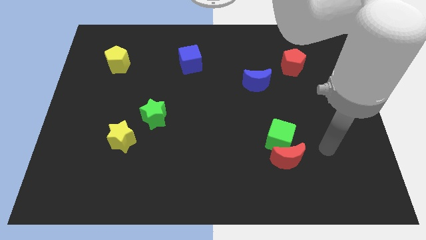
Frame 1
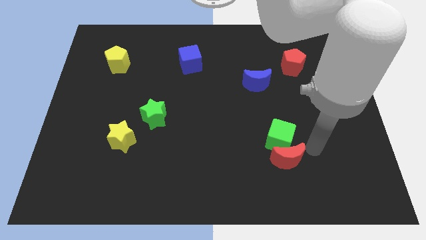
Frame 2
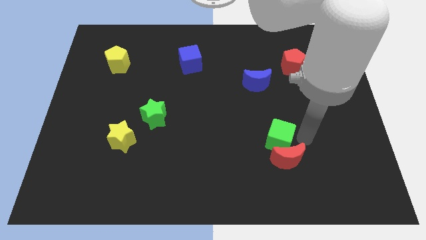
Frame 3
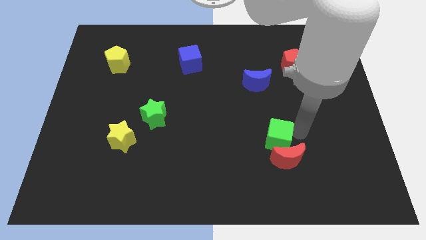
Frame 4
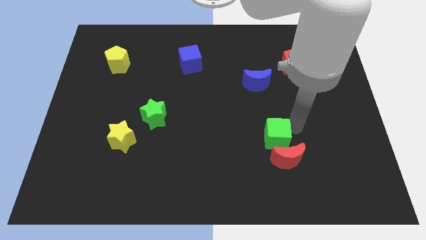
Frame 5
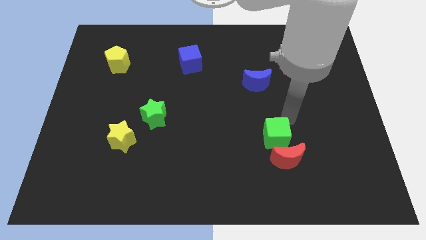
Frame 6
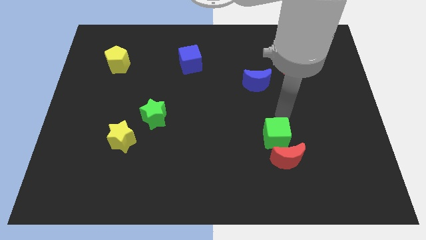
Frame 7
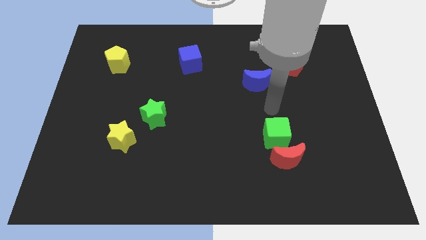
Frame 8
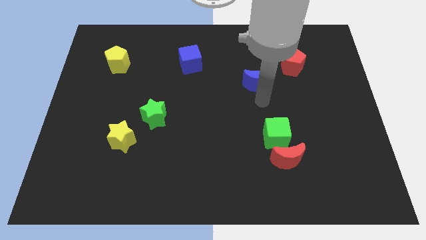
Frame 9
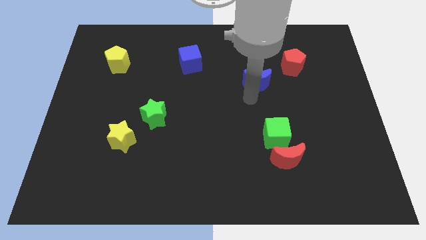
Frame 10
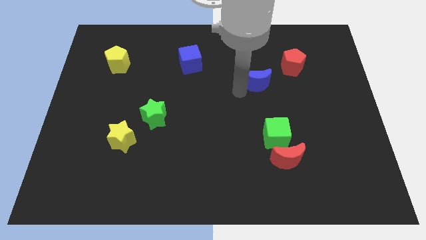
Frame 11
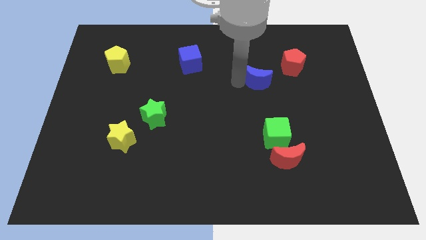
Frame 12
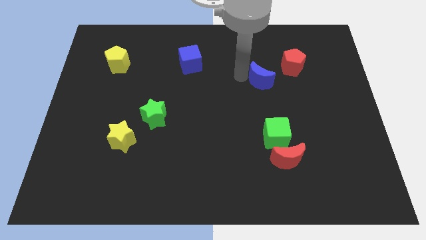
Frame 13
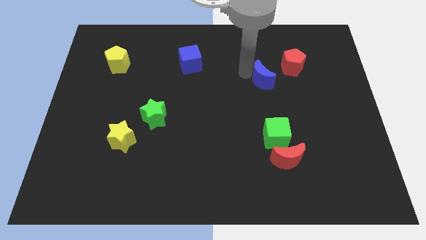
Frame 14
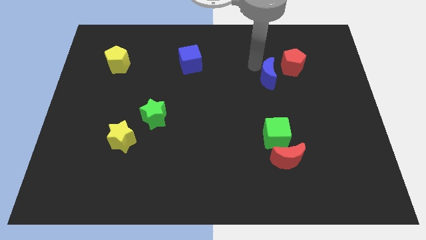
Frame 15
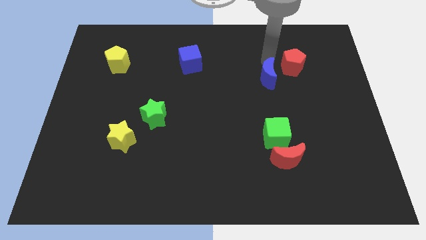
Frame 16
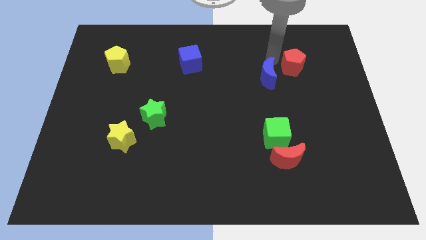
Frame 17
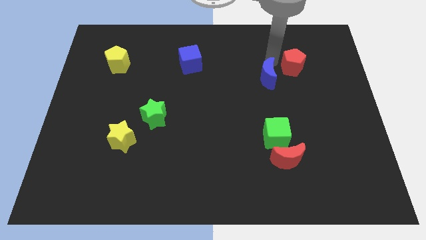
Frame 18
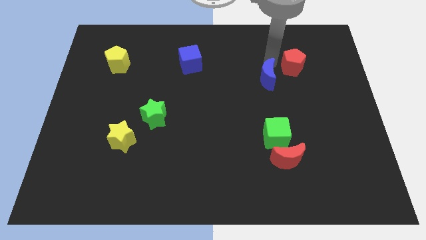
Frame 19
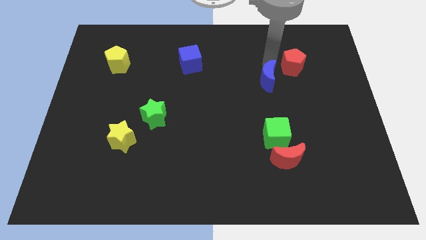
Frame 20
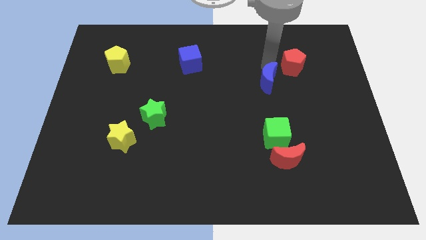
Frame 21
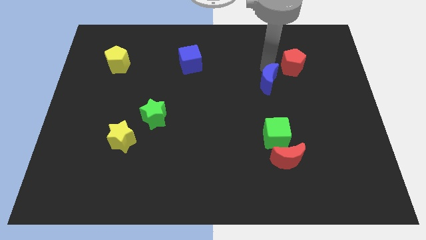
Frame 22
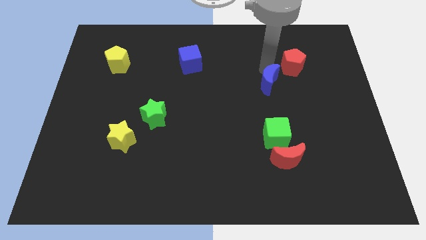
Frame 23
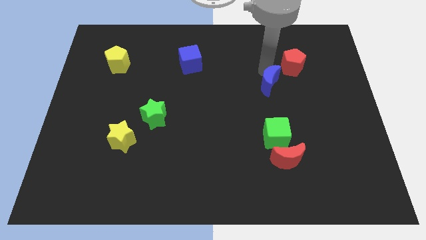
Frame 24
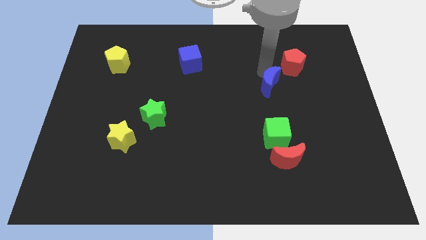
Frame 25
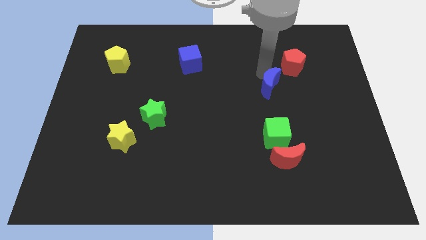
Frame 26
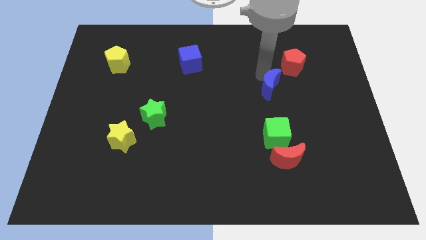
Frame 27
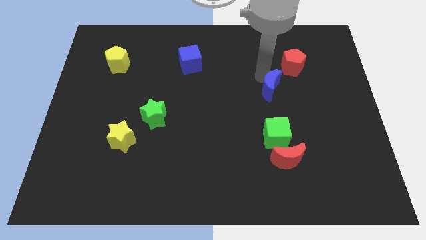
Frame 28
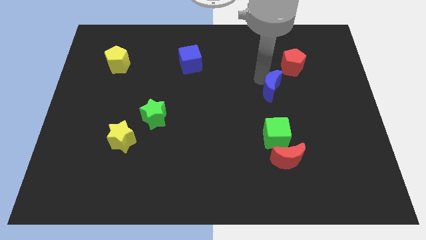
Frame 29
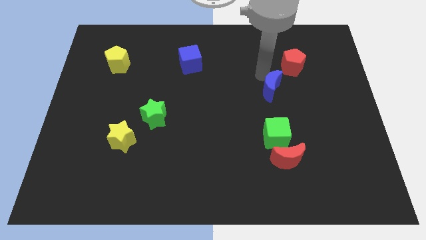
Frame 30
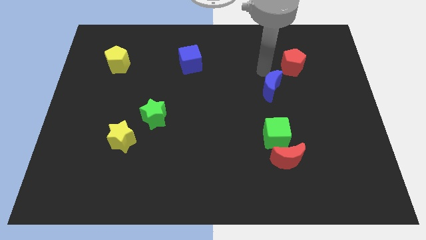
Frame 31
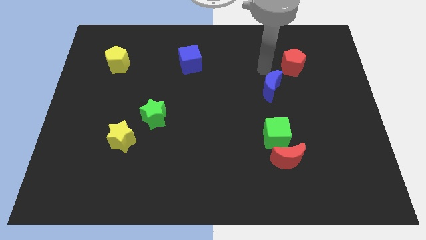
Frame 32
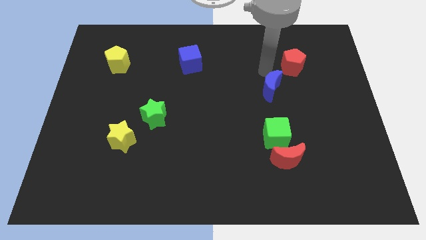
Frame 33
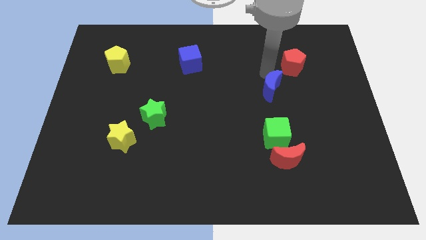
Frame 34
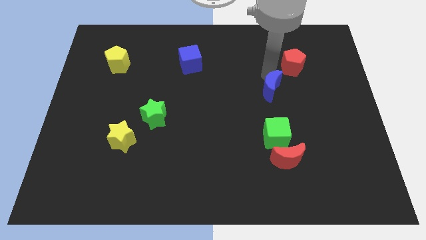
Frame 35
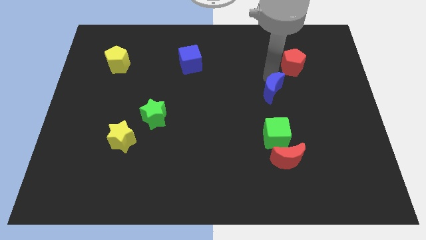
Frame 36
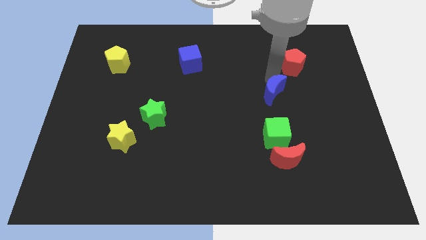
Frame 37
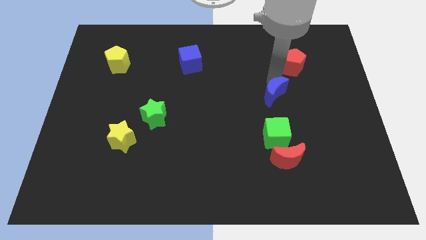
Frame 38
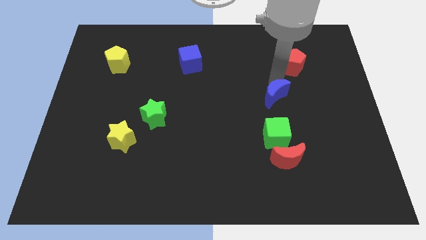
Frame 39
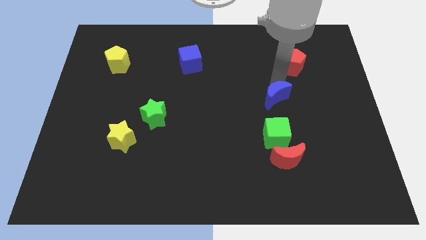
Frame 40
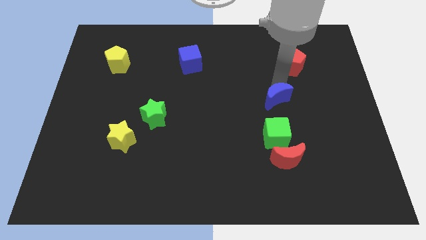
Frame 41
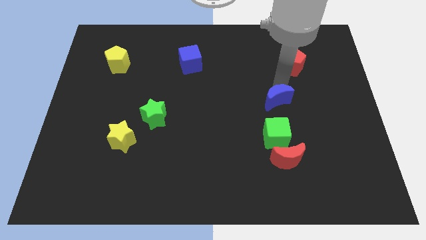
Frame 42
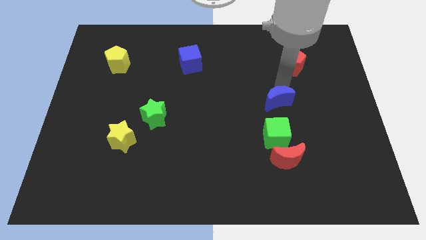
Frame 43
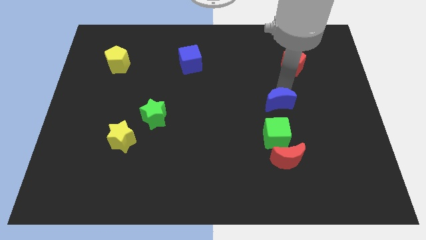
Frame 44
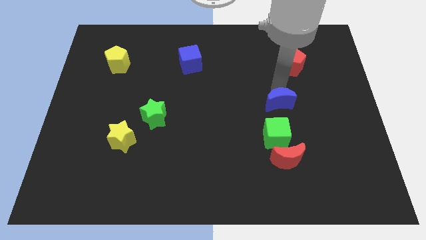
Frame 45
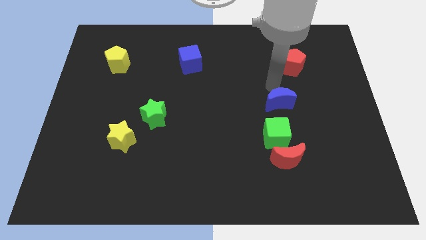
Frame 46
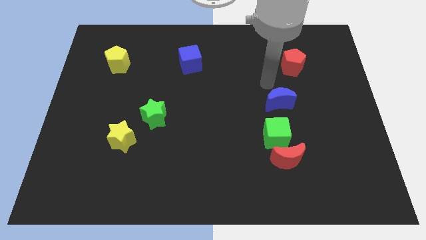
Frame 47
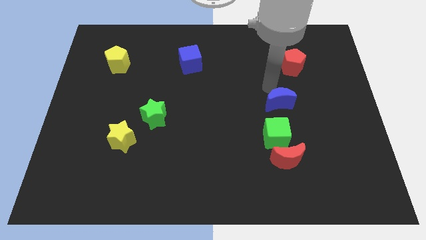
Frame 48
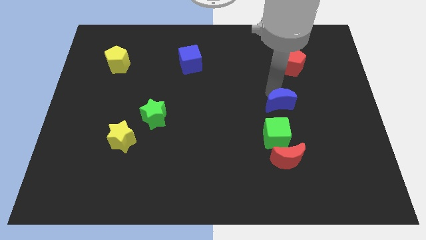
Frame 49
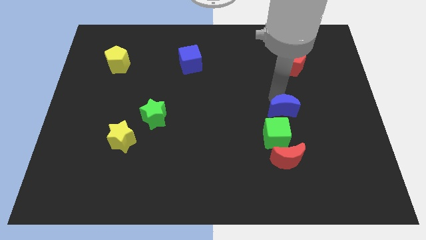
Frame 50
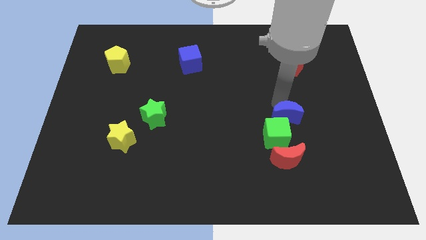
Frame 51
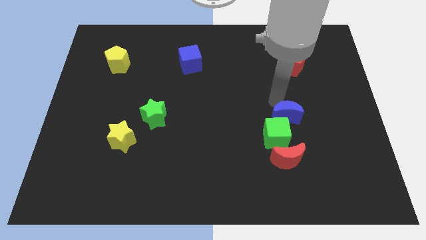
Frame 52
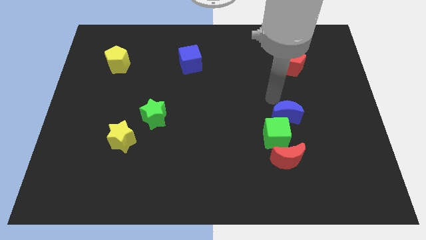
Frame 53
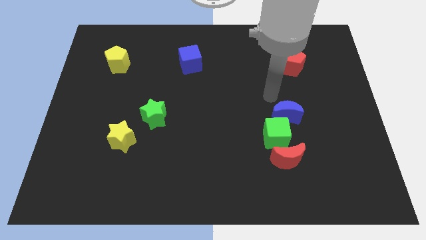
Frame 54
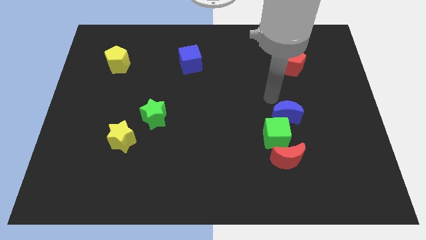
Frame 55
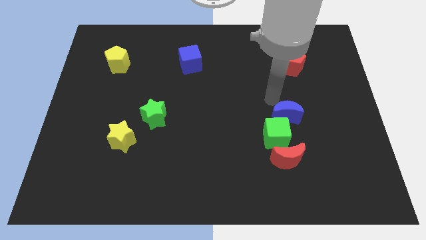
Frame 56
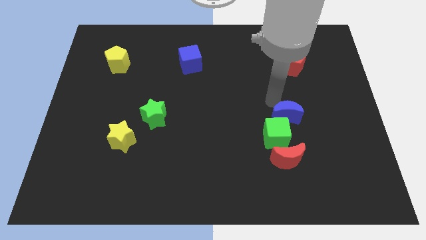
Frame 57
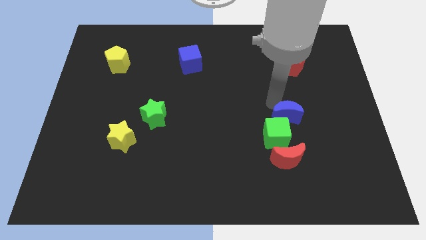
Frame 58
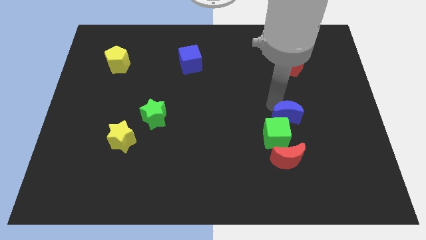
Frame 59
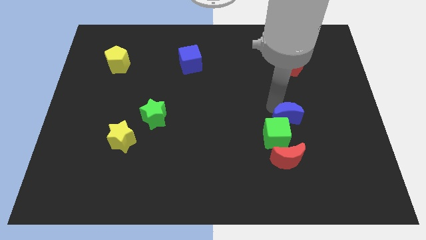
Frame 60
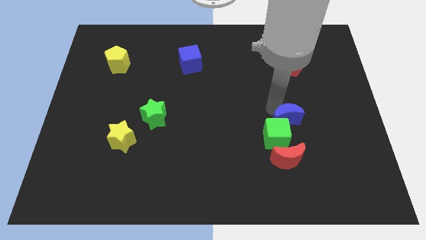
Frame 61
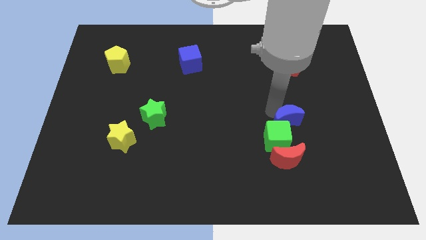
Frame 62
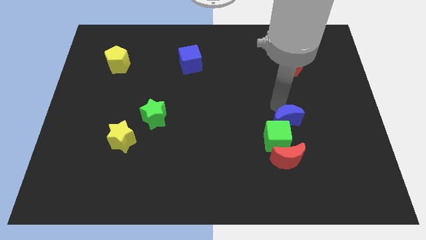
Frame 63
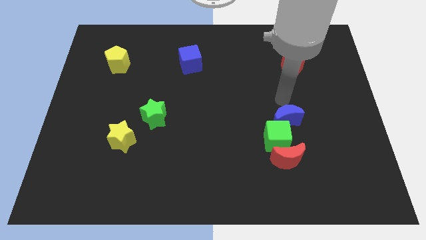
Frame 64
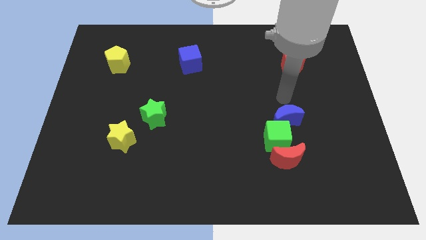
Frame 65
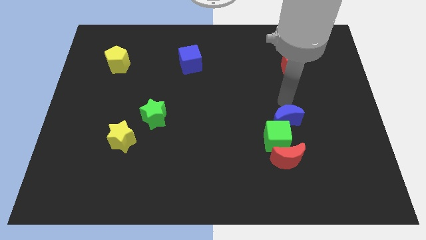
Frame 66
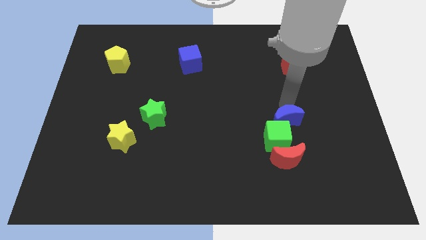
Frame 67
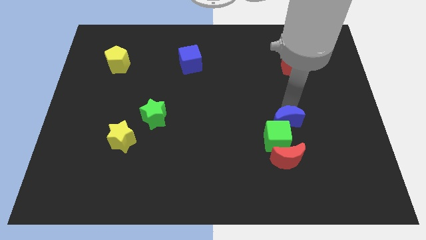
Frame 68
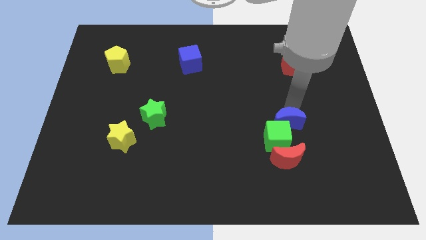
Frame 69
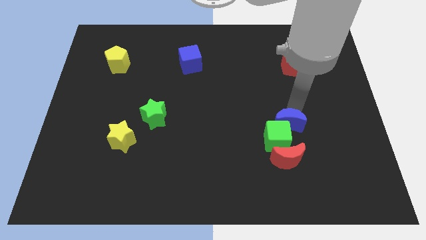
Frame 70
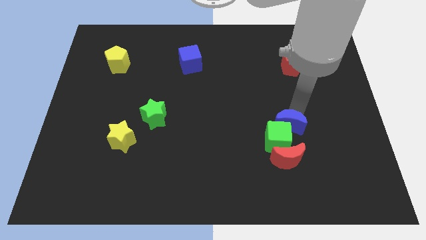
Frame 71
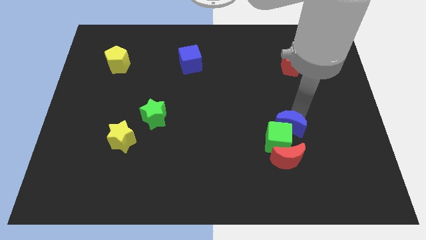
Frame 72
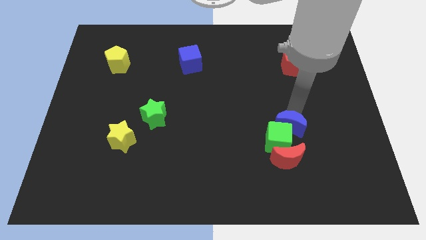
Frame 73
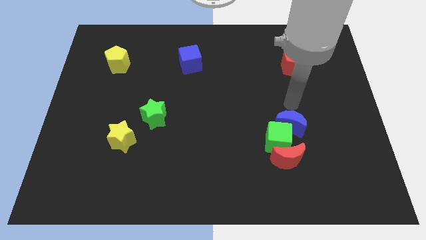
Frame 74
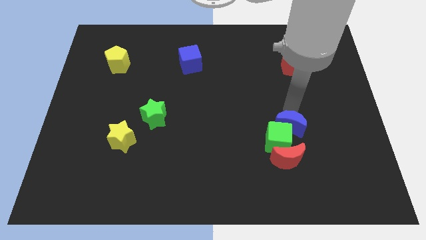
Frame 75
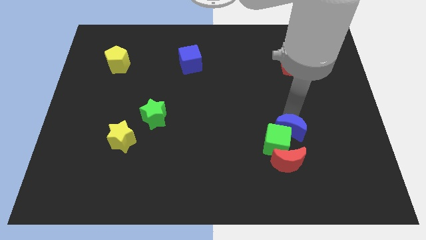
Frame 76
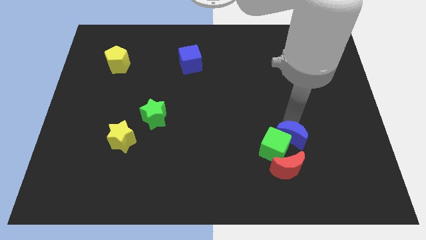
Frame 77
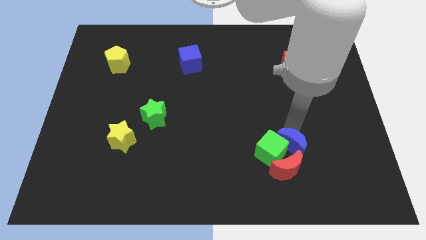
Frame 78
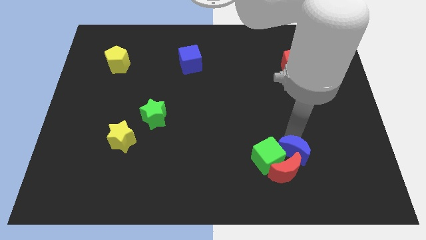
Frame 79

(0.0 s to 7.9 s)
slide the blue moon to the red moon

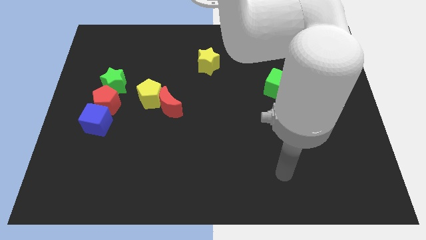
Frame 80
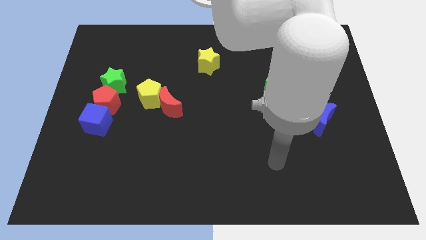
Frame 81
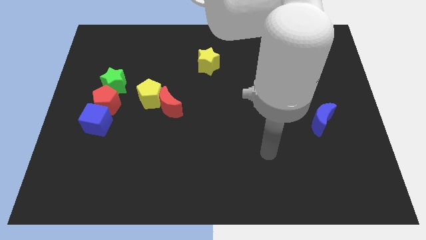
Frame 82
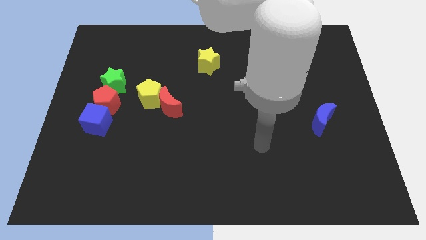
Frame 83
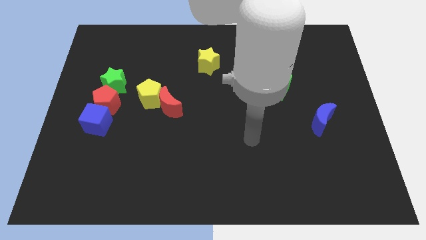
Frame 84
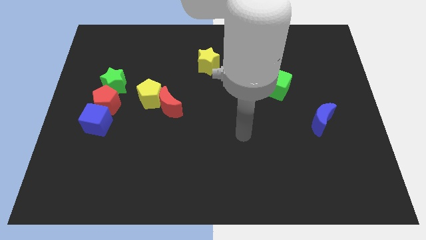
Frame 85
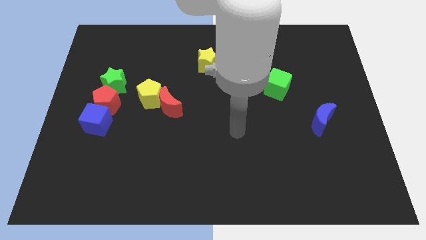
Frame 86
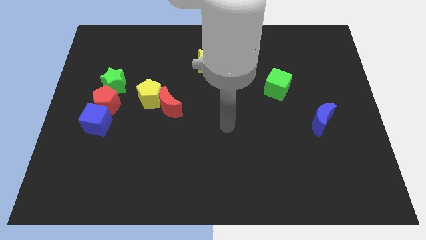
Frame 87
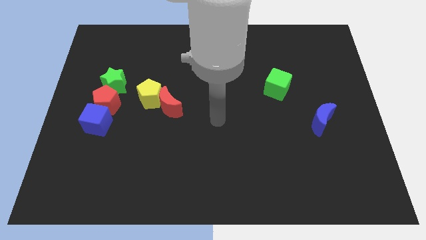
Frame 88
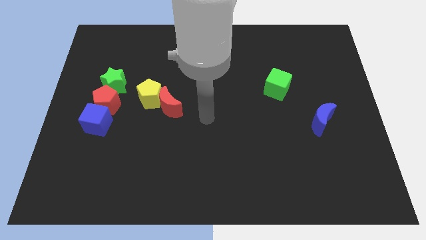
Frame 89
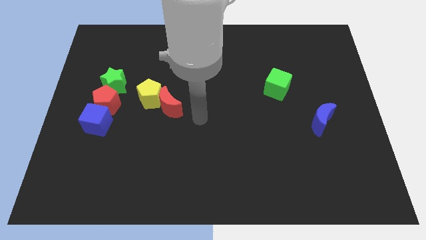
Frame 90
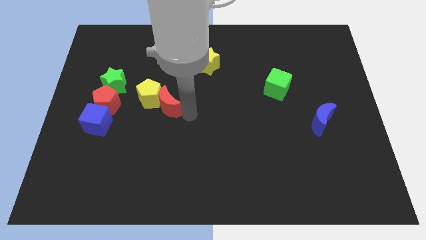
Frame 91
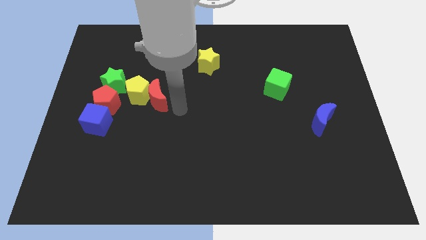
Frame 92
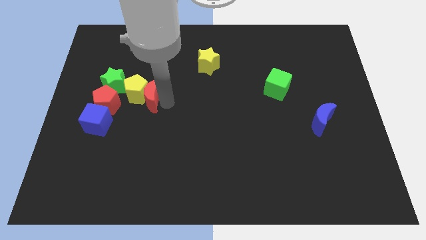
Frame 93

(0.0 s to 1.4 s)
slide the yellow pentagon towards the green star
